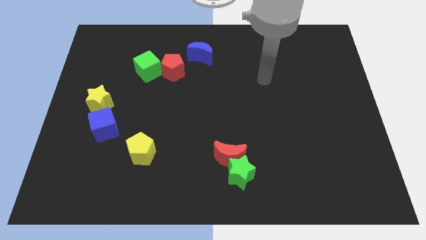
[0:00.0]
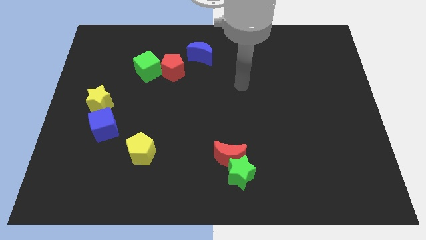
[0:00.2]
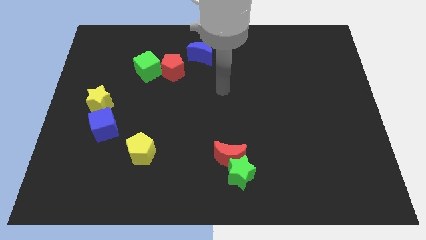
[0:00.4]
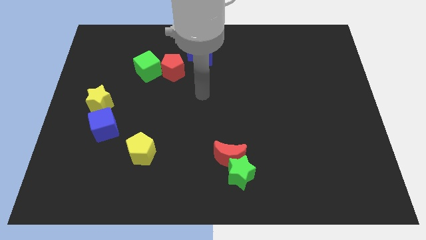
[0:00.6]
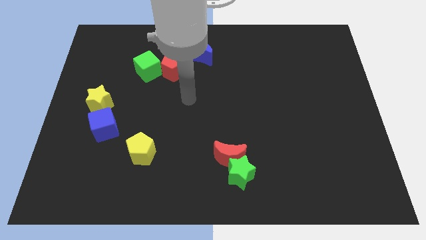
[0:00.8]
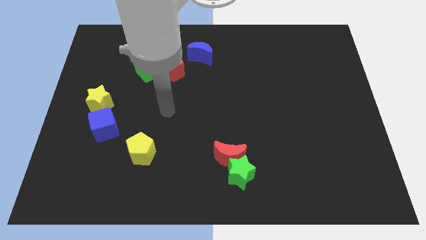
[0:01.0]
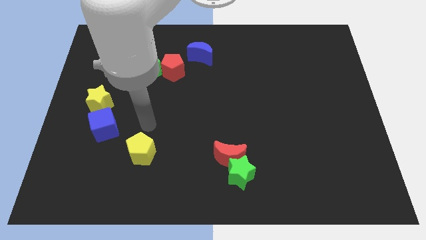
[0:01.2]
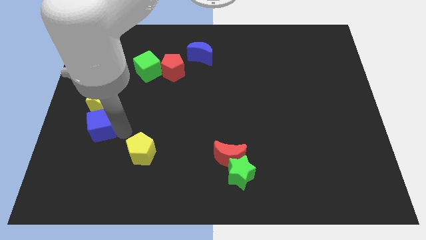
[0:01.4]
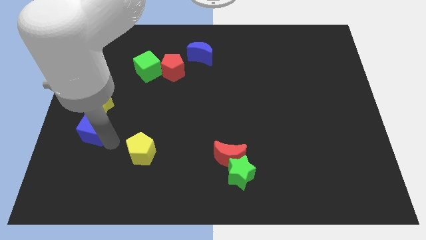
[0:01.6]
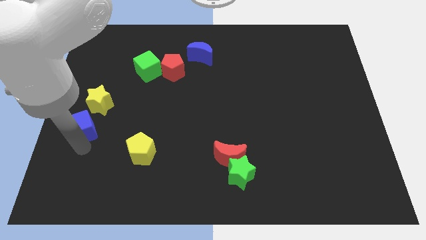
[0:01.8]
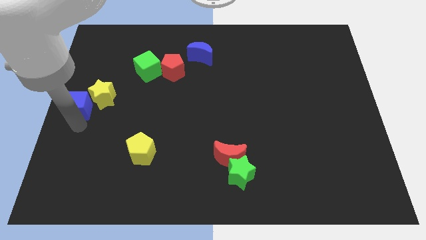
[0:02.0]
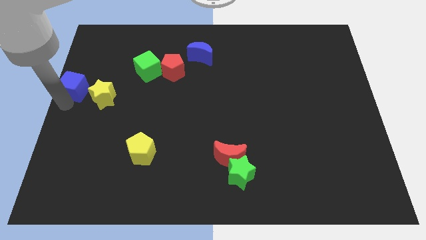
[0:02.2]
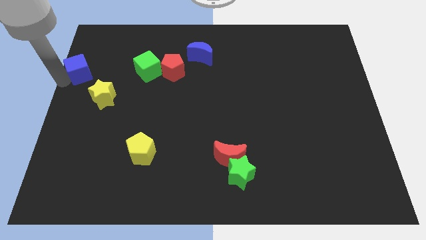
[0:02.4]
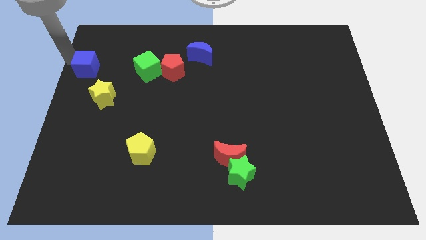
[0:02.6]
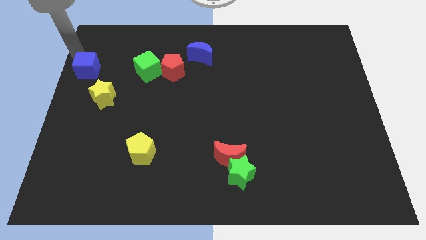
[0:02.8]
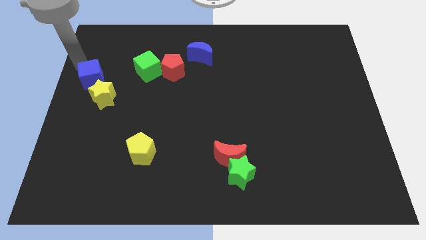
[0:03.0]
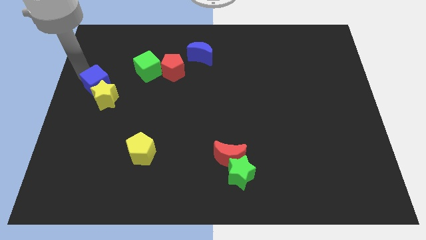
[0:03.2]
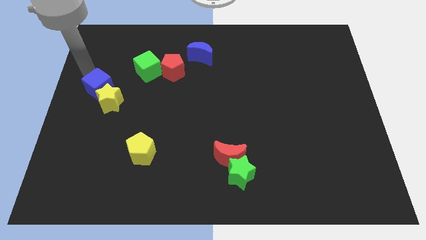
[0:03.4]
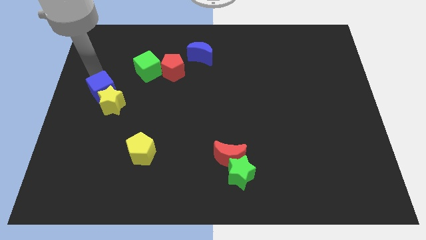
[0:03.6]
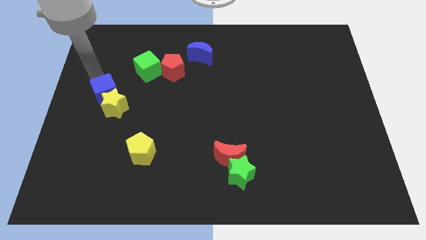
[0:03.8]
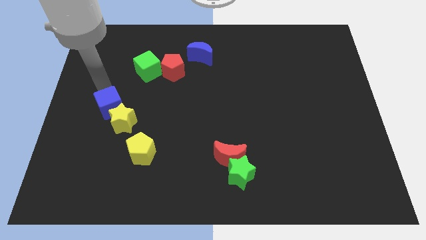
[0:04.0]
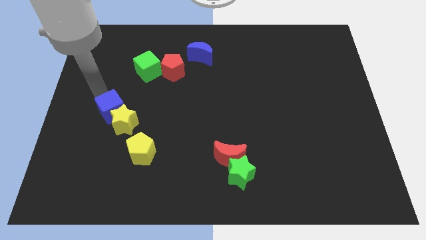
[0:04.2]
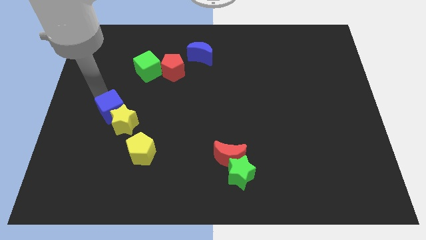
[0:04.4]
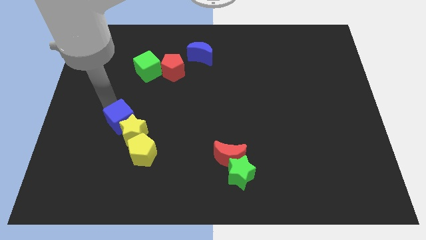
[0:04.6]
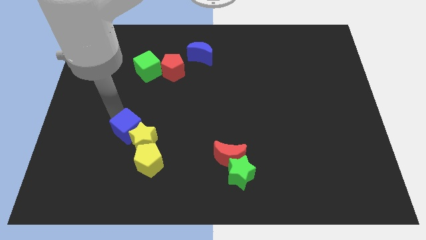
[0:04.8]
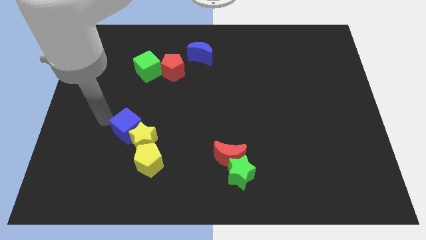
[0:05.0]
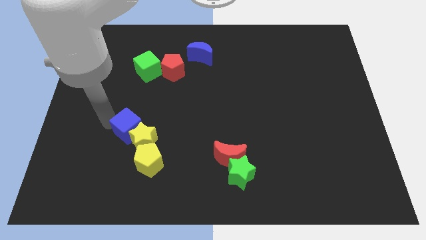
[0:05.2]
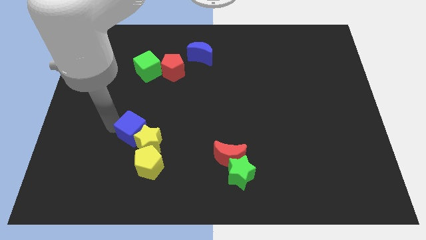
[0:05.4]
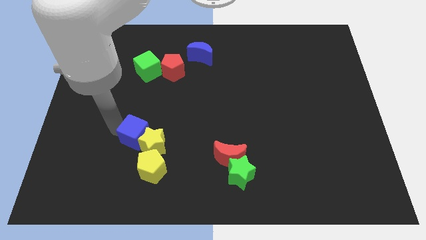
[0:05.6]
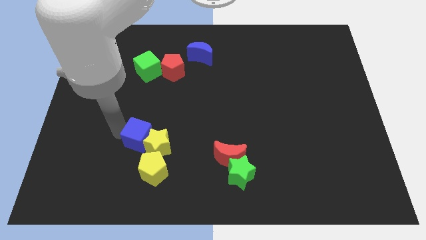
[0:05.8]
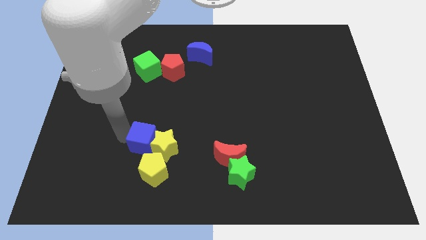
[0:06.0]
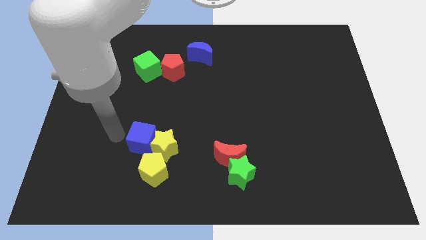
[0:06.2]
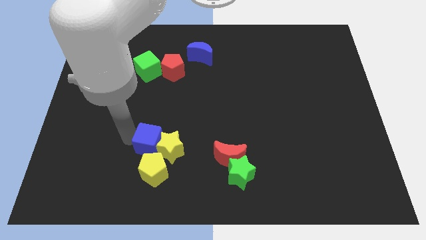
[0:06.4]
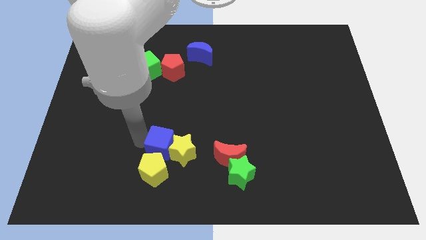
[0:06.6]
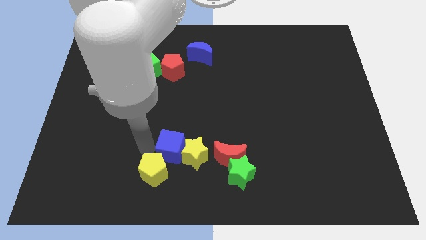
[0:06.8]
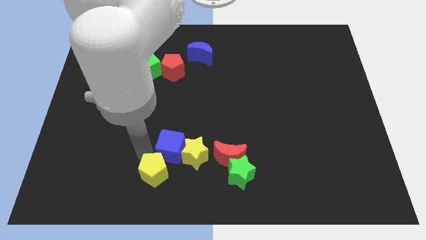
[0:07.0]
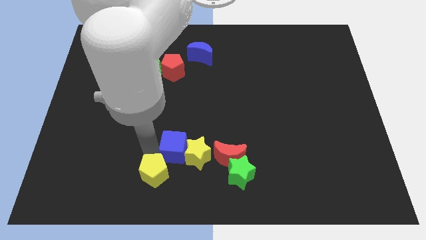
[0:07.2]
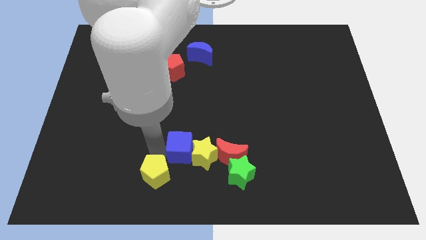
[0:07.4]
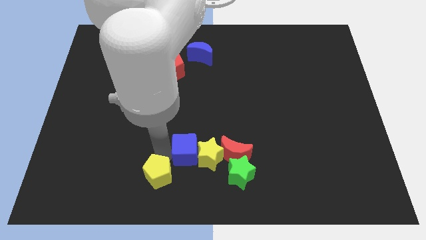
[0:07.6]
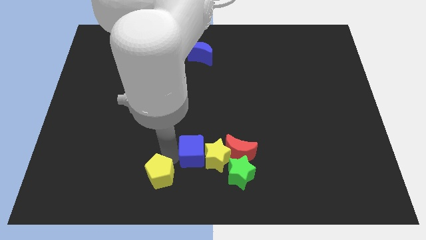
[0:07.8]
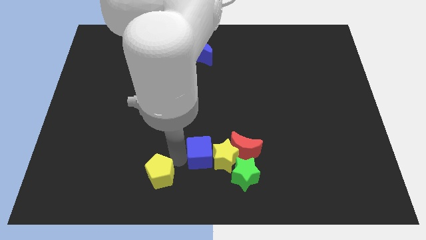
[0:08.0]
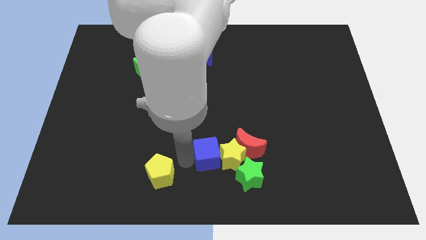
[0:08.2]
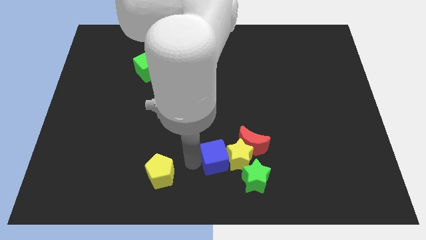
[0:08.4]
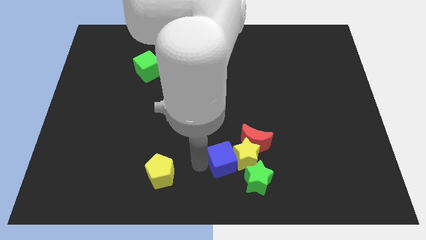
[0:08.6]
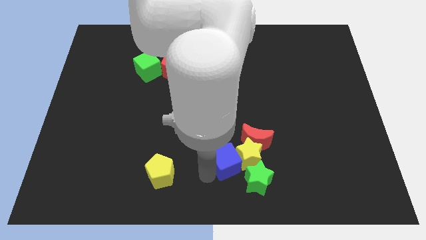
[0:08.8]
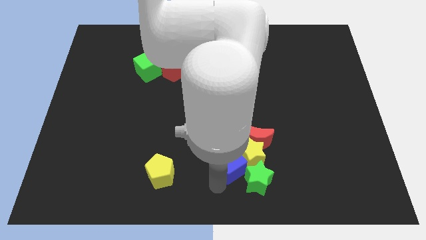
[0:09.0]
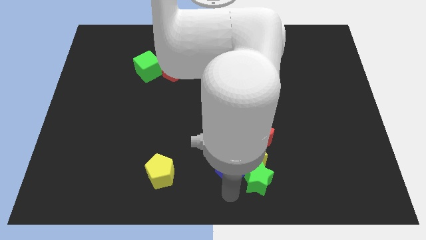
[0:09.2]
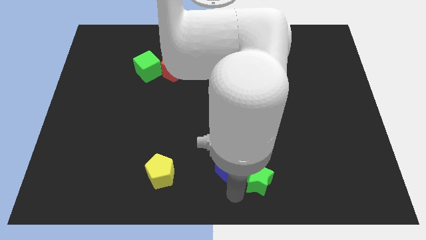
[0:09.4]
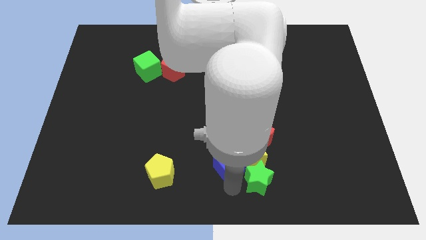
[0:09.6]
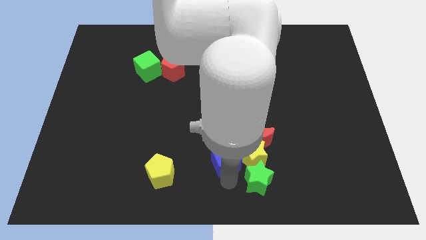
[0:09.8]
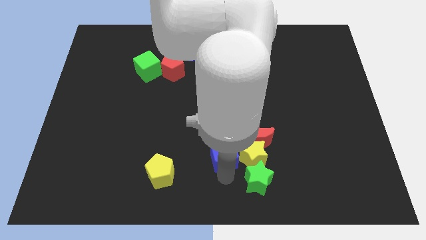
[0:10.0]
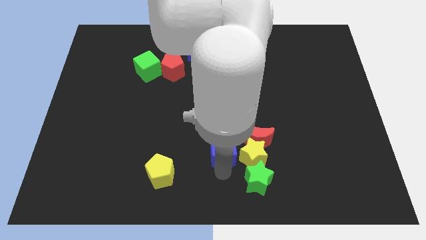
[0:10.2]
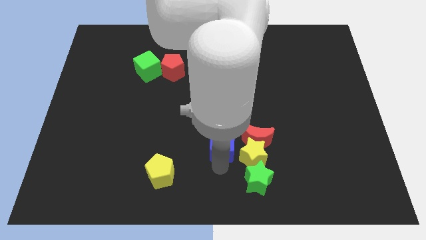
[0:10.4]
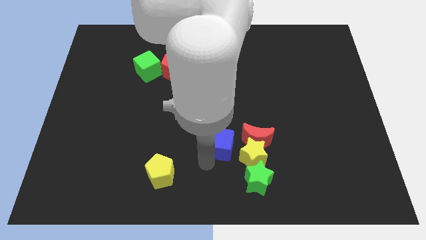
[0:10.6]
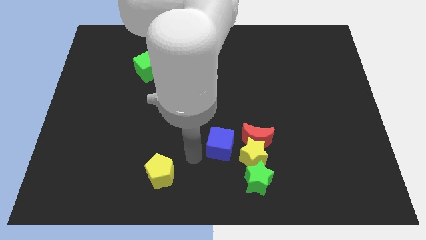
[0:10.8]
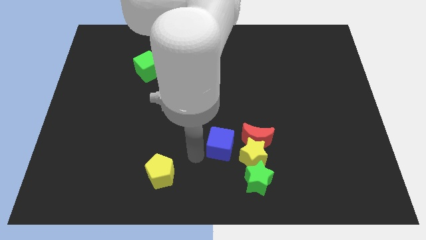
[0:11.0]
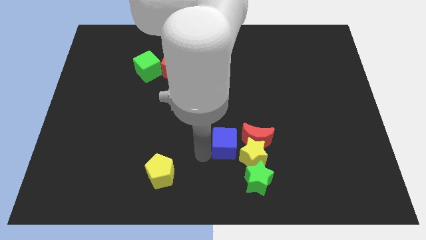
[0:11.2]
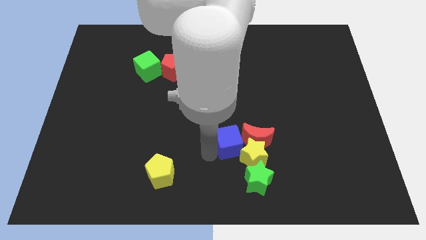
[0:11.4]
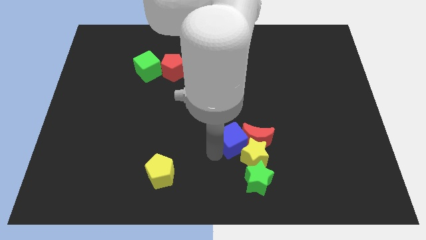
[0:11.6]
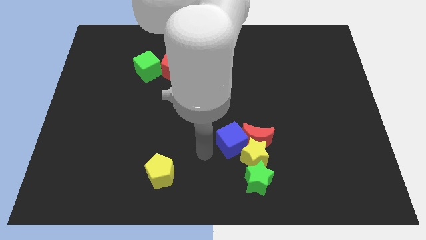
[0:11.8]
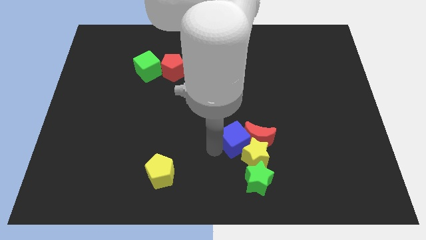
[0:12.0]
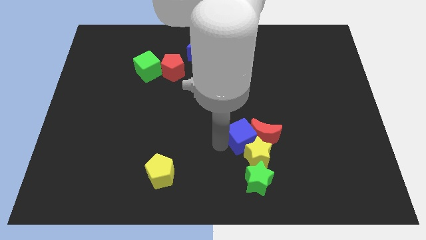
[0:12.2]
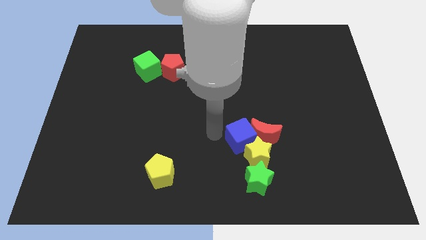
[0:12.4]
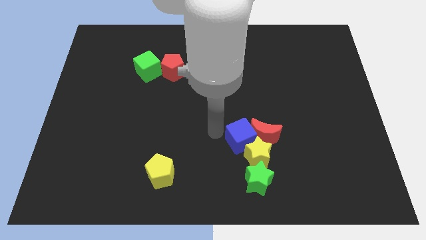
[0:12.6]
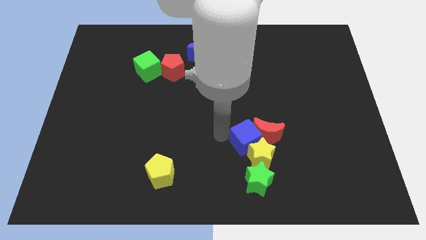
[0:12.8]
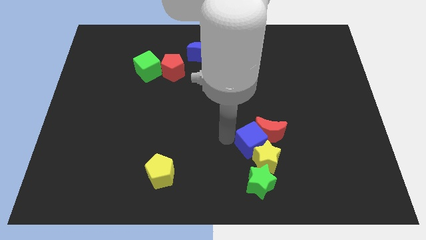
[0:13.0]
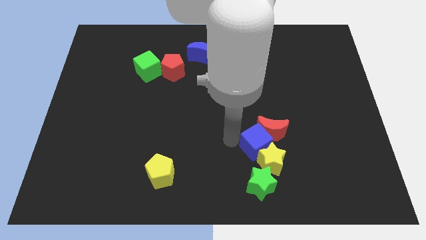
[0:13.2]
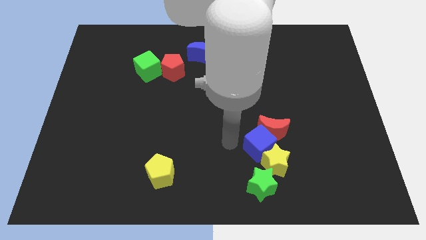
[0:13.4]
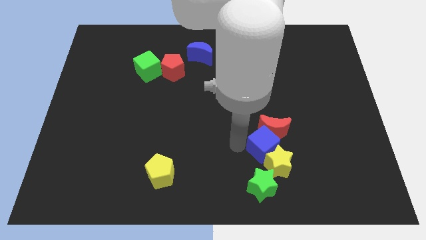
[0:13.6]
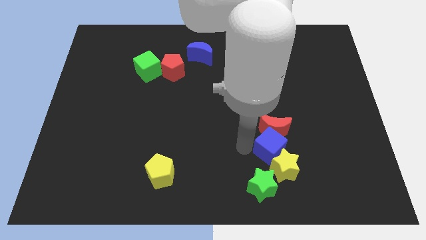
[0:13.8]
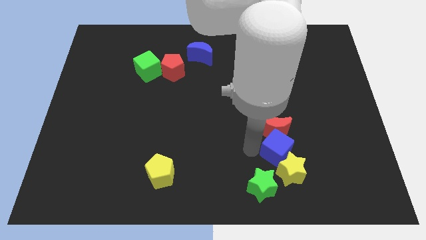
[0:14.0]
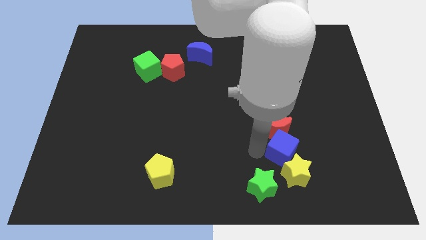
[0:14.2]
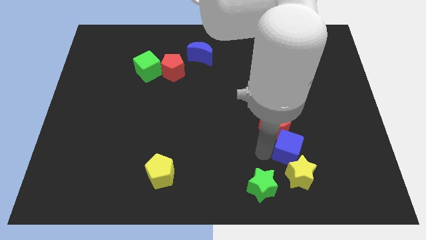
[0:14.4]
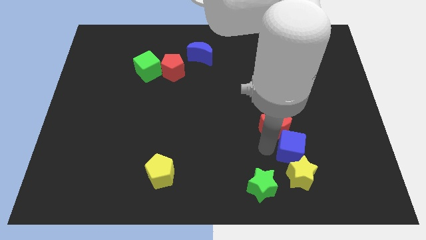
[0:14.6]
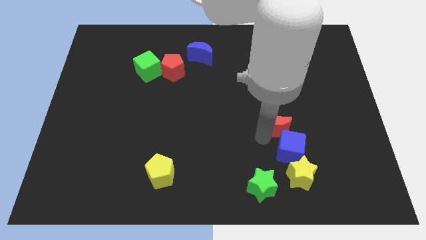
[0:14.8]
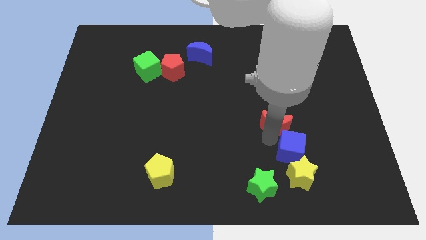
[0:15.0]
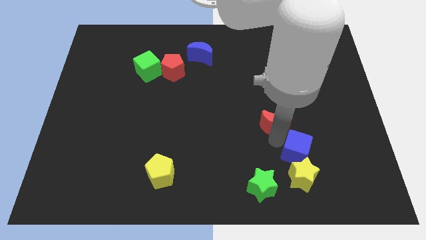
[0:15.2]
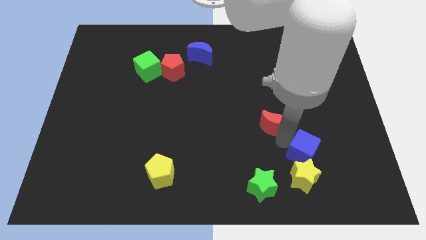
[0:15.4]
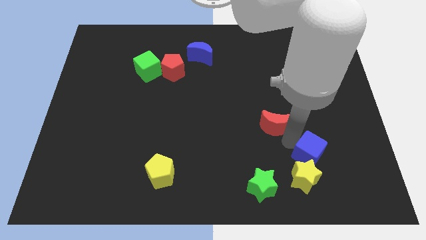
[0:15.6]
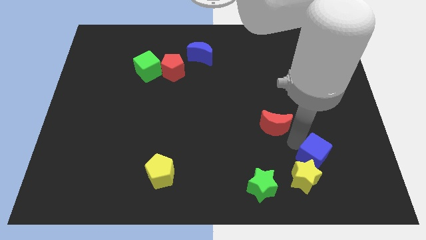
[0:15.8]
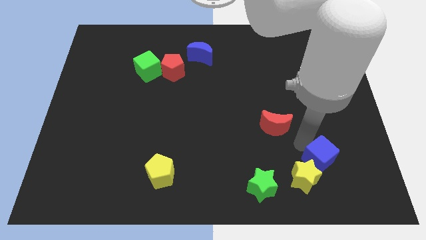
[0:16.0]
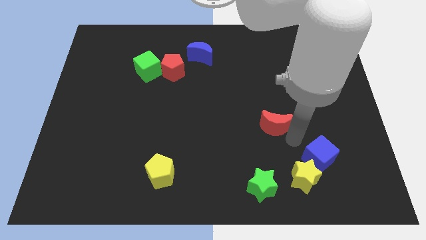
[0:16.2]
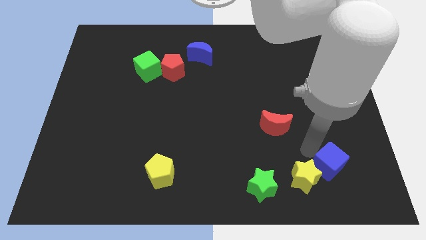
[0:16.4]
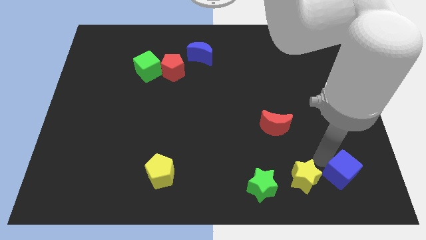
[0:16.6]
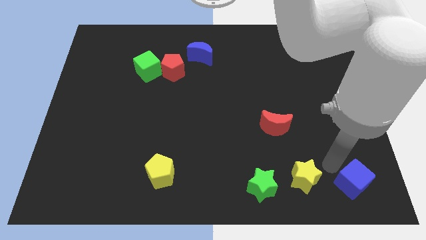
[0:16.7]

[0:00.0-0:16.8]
move the blue cube to the bottom right corner
